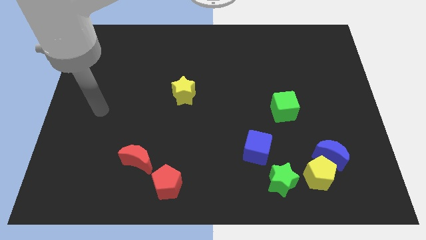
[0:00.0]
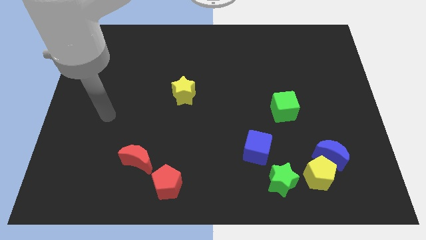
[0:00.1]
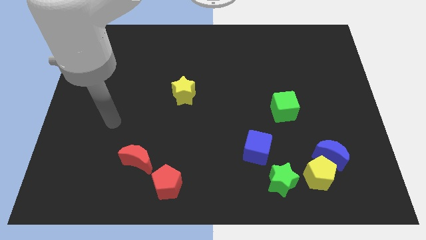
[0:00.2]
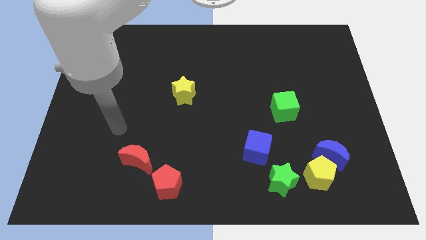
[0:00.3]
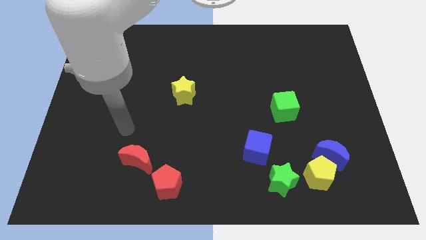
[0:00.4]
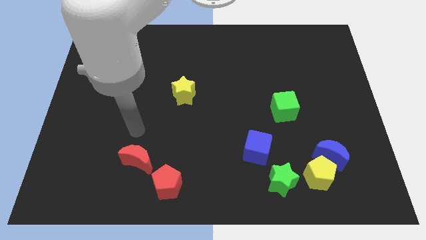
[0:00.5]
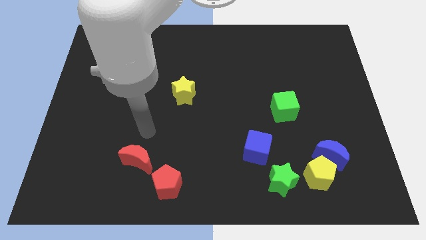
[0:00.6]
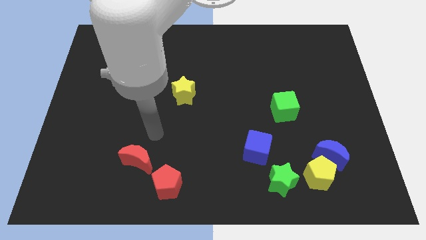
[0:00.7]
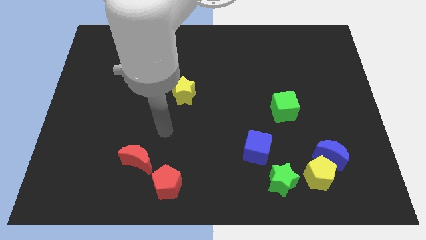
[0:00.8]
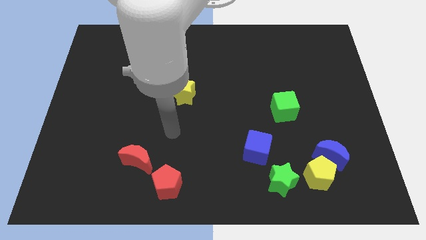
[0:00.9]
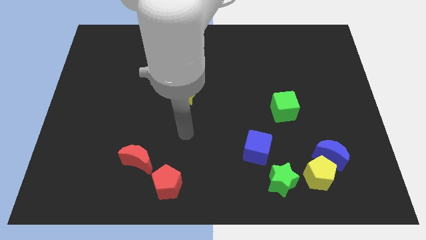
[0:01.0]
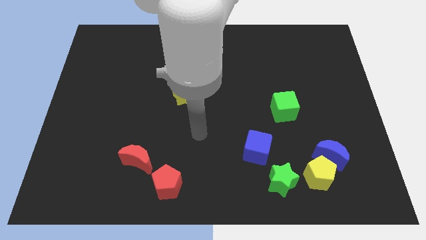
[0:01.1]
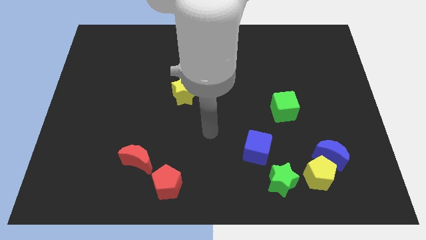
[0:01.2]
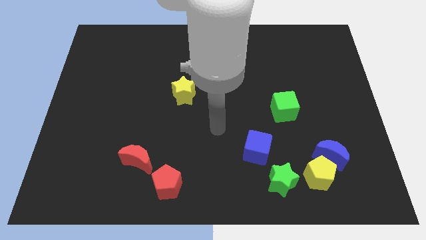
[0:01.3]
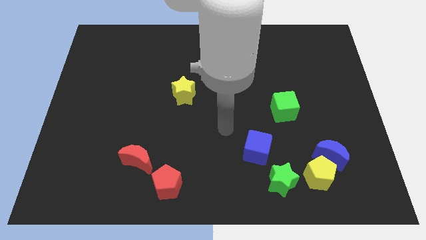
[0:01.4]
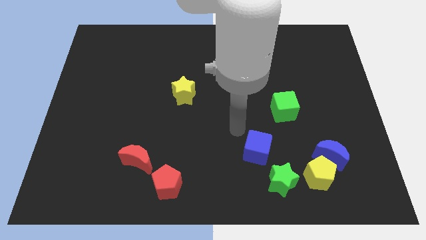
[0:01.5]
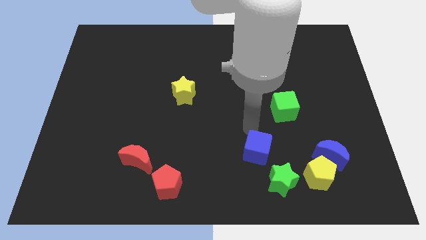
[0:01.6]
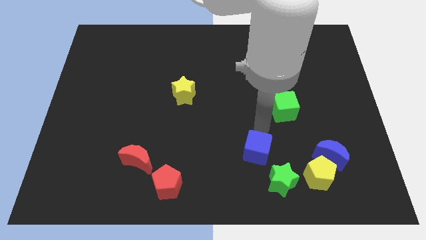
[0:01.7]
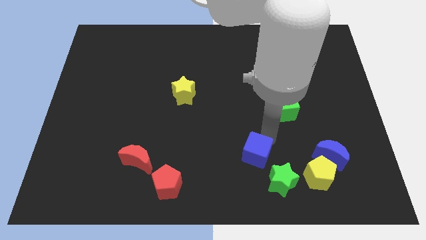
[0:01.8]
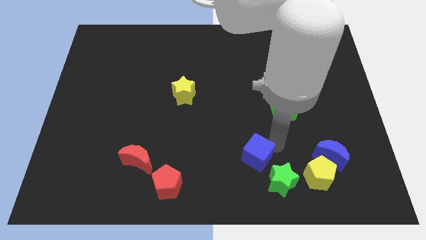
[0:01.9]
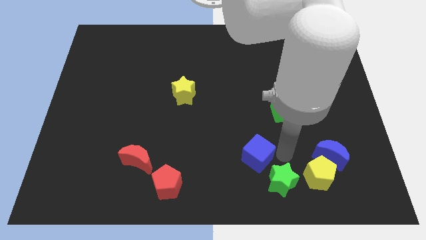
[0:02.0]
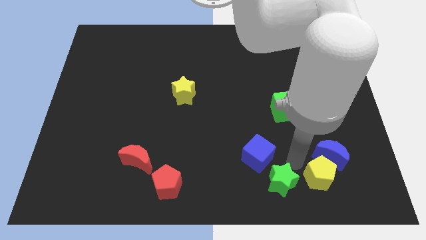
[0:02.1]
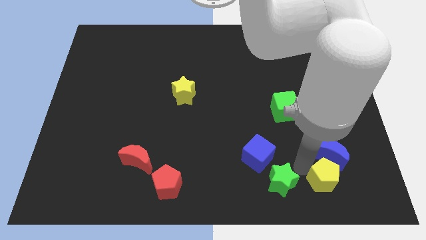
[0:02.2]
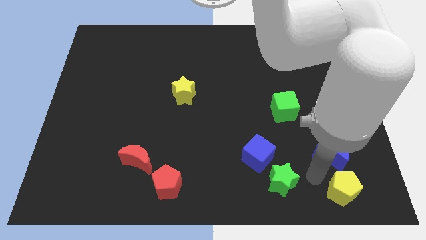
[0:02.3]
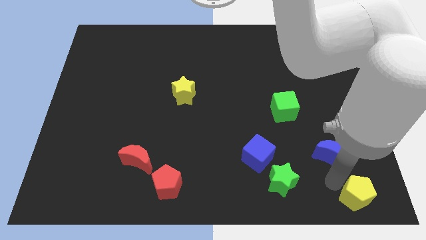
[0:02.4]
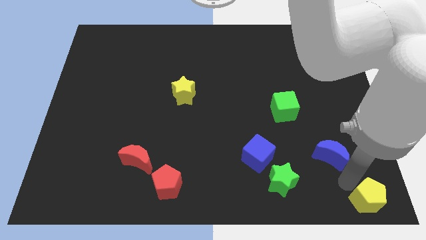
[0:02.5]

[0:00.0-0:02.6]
pull the blue moon apart from the yellow pentagon

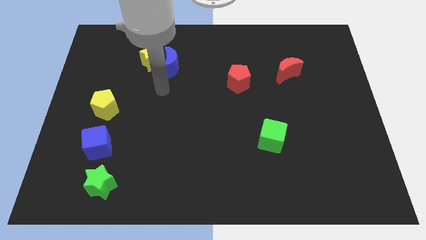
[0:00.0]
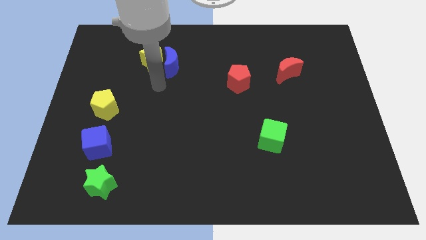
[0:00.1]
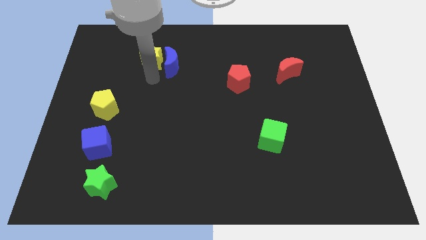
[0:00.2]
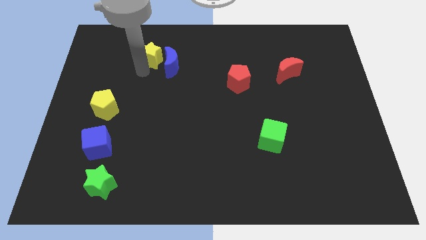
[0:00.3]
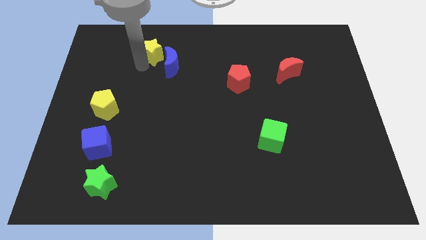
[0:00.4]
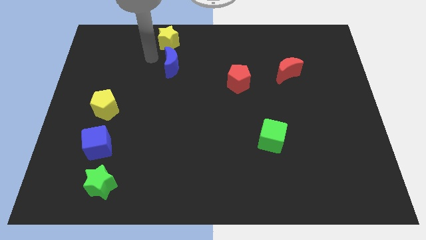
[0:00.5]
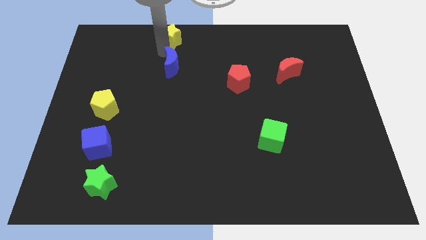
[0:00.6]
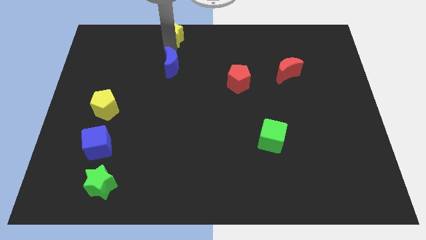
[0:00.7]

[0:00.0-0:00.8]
pull the blue moon apart from the yellow star

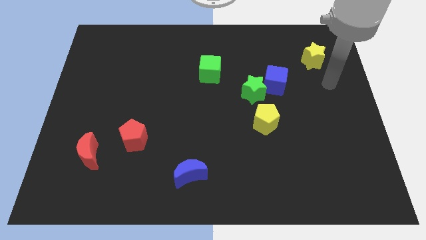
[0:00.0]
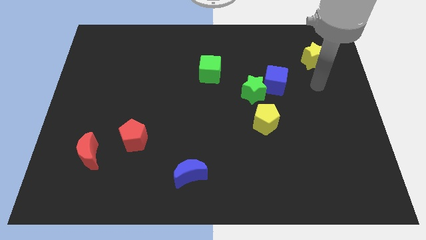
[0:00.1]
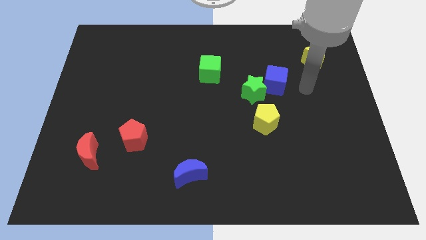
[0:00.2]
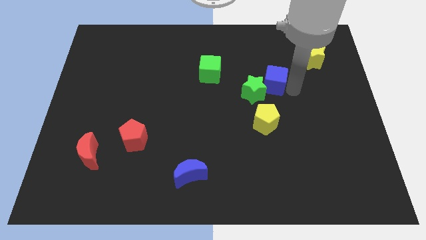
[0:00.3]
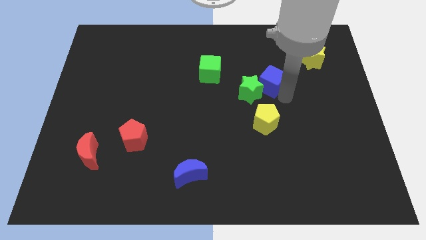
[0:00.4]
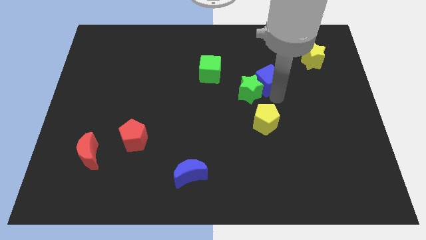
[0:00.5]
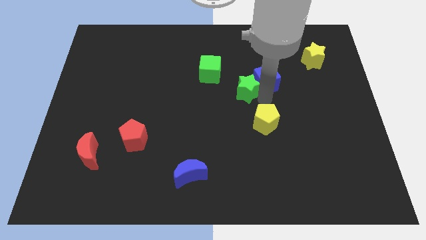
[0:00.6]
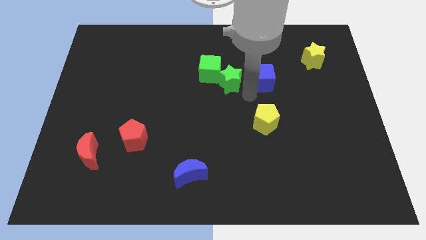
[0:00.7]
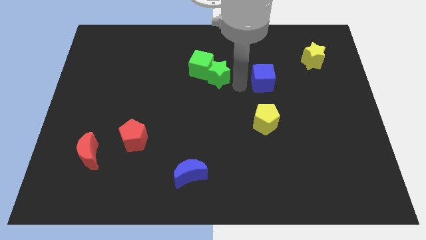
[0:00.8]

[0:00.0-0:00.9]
pull the blue cube apart from the green star

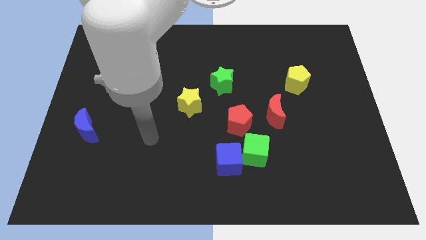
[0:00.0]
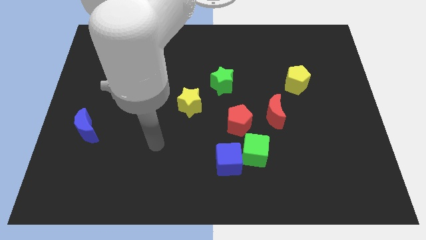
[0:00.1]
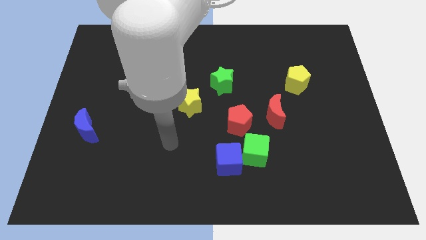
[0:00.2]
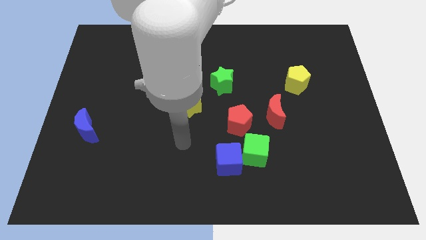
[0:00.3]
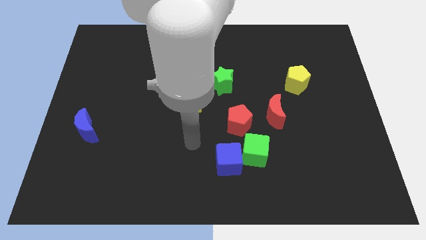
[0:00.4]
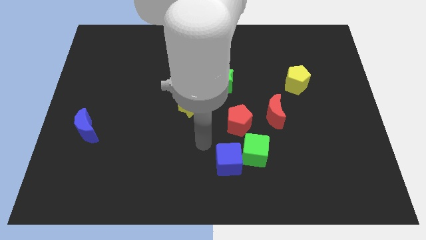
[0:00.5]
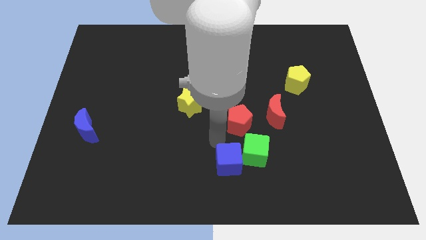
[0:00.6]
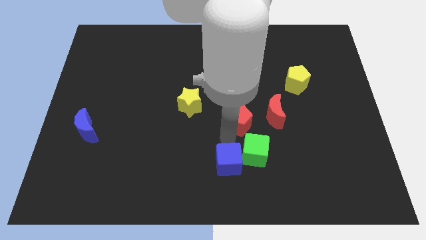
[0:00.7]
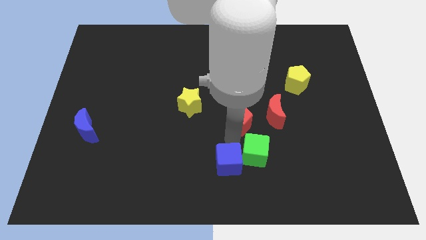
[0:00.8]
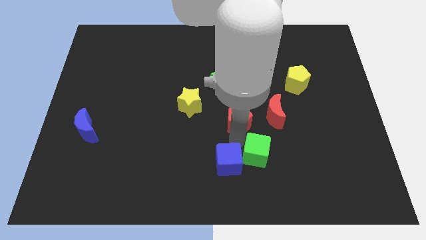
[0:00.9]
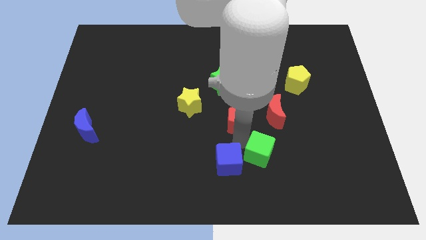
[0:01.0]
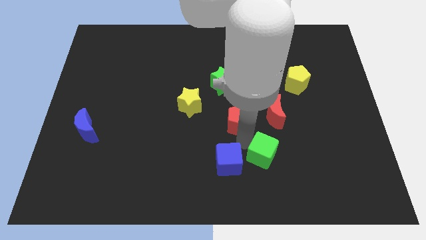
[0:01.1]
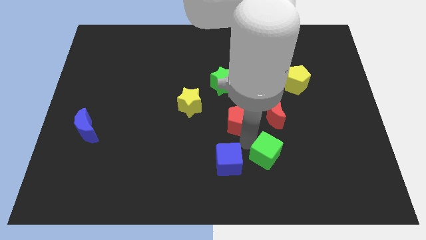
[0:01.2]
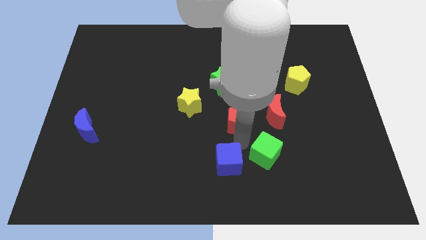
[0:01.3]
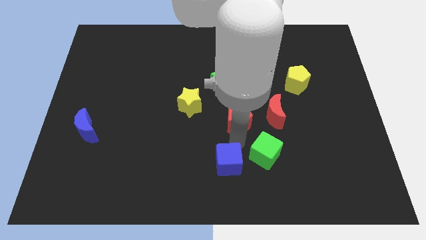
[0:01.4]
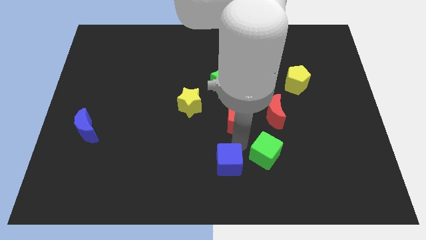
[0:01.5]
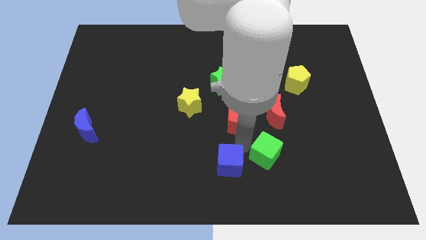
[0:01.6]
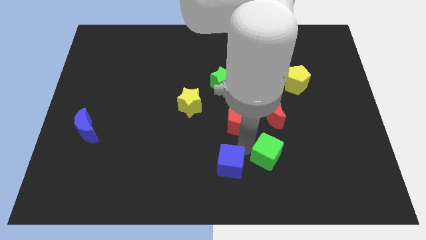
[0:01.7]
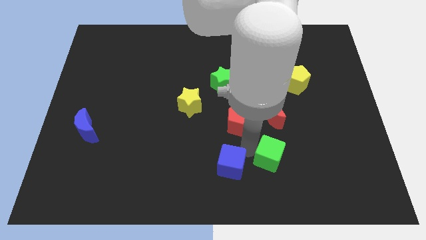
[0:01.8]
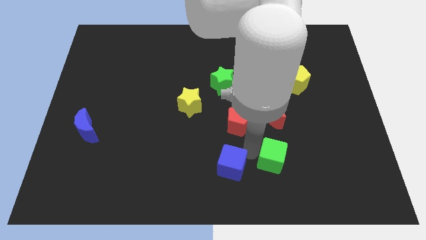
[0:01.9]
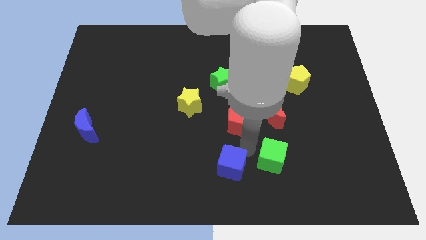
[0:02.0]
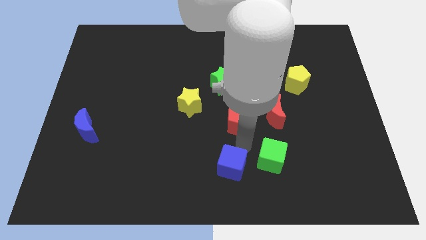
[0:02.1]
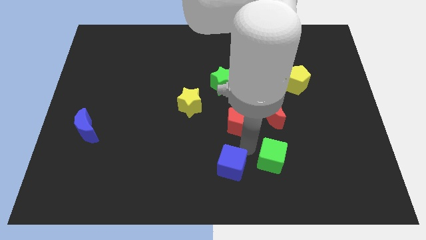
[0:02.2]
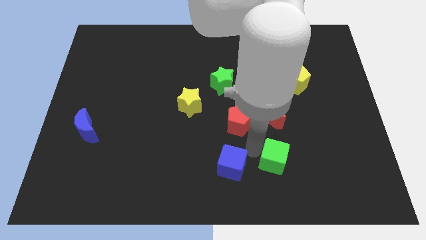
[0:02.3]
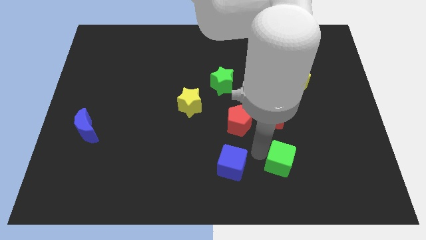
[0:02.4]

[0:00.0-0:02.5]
move the green cube away from the blue cube and red pentagon

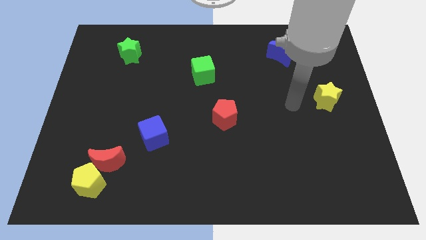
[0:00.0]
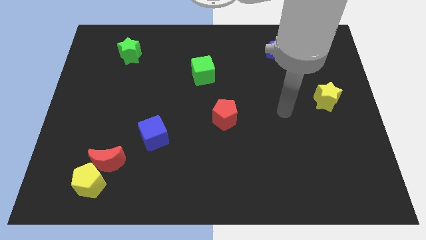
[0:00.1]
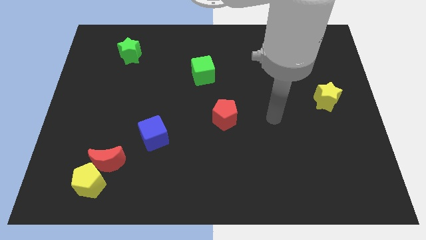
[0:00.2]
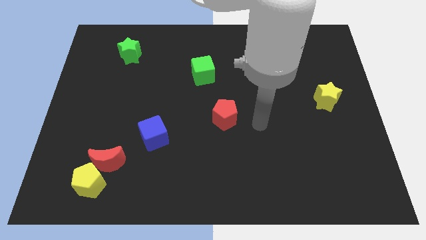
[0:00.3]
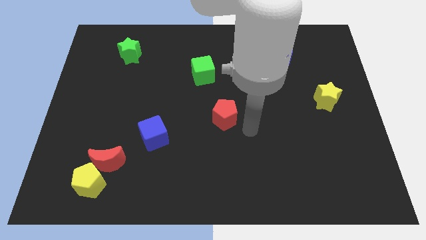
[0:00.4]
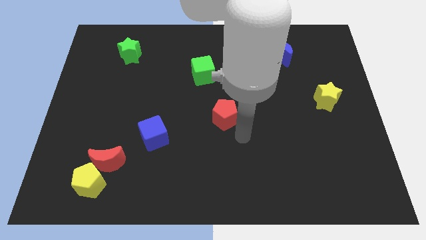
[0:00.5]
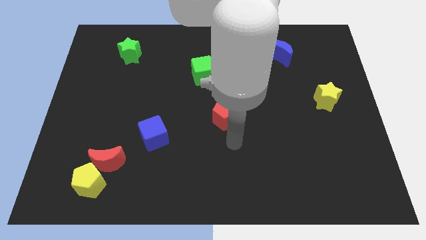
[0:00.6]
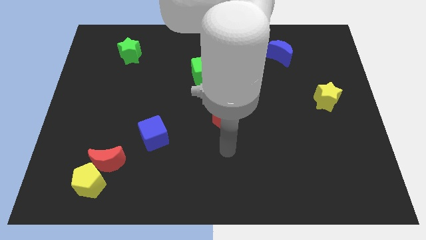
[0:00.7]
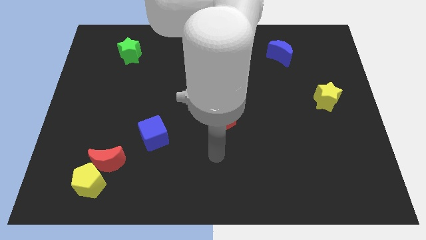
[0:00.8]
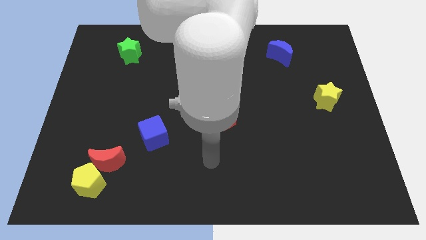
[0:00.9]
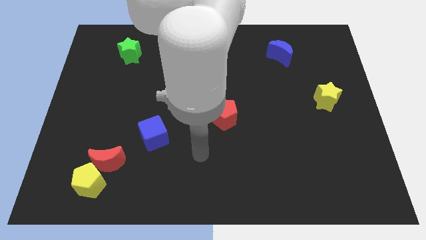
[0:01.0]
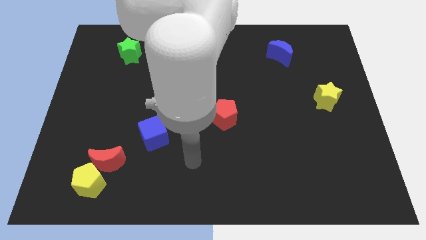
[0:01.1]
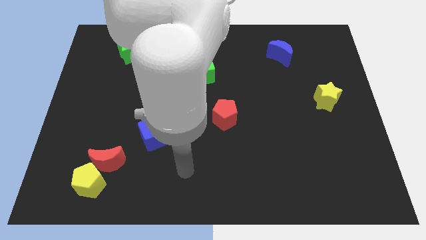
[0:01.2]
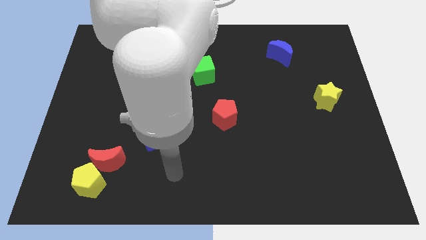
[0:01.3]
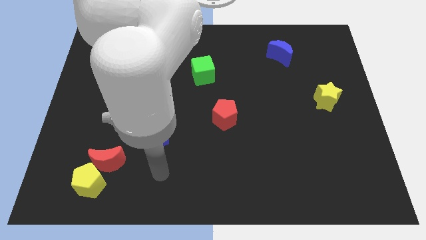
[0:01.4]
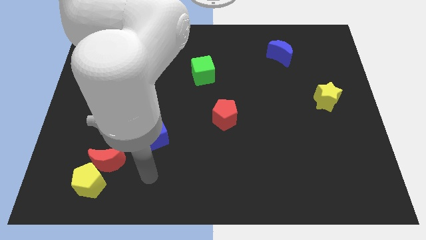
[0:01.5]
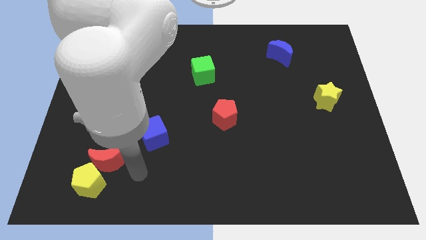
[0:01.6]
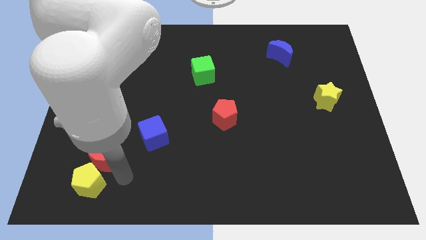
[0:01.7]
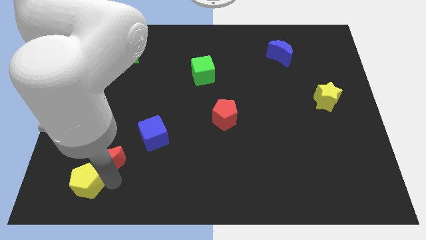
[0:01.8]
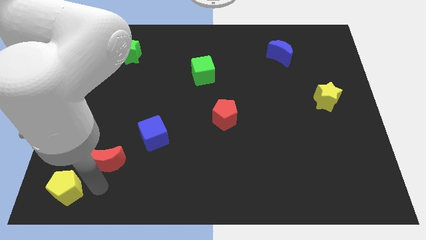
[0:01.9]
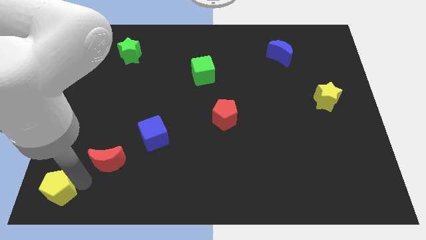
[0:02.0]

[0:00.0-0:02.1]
pull the red moon apart from the yellow pentagon

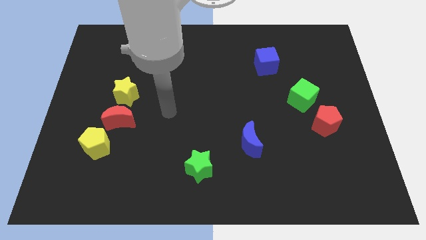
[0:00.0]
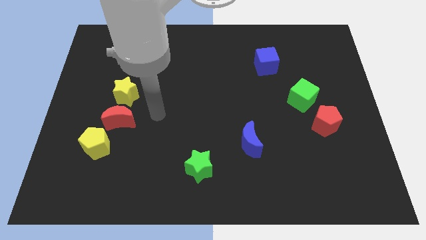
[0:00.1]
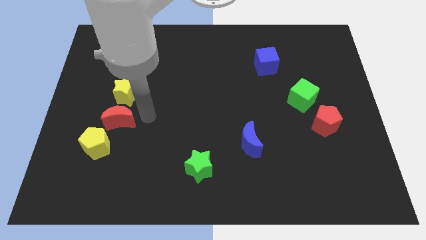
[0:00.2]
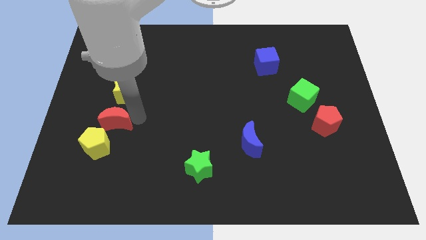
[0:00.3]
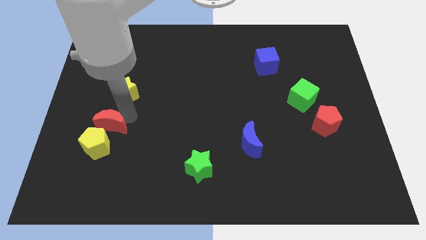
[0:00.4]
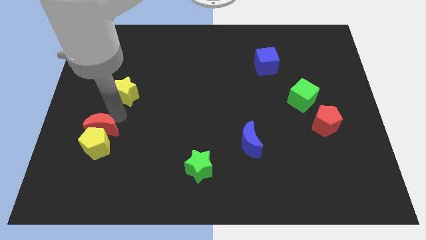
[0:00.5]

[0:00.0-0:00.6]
separate the yellow star from the red moon
